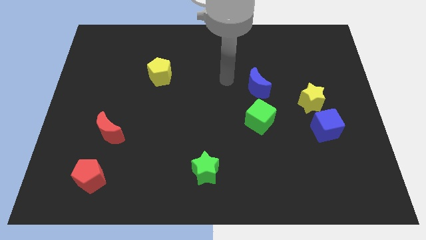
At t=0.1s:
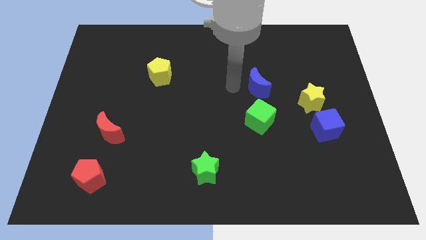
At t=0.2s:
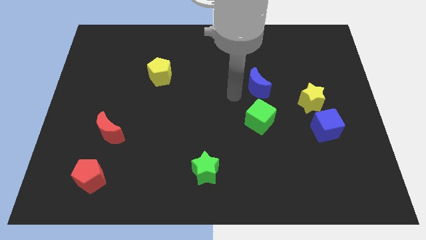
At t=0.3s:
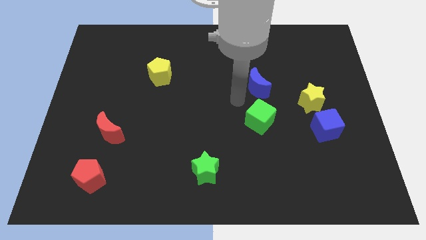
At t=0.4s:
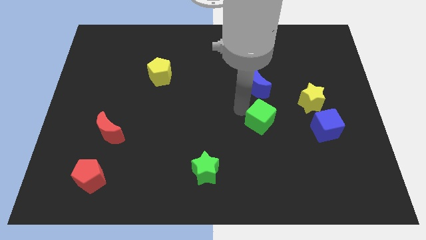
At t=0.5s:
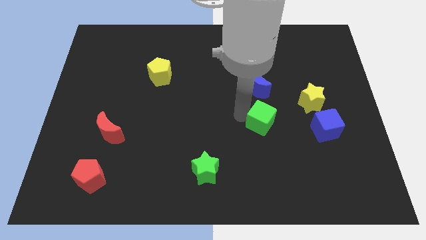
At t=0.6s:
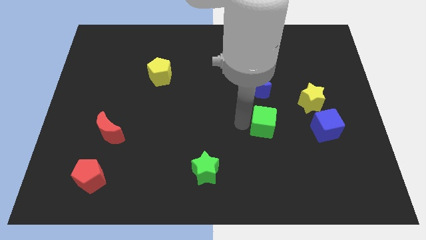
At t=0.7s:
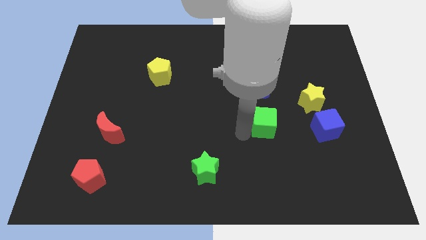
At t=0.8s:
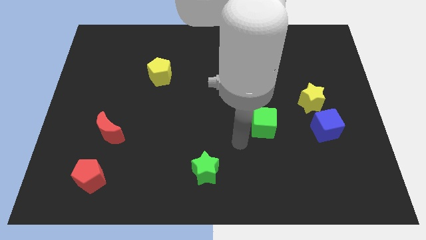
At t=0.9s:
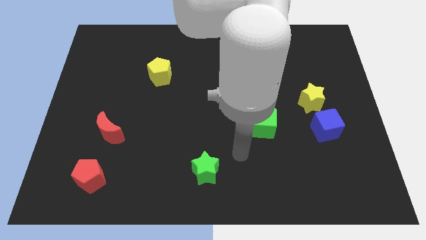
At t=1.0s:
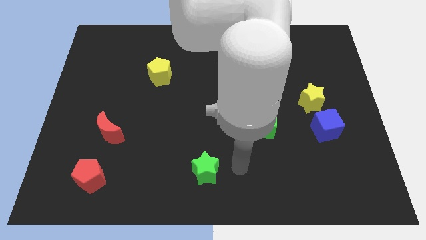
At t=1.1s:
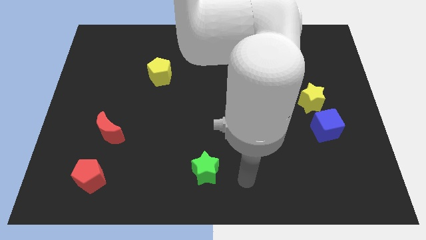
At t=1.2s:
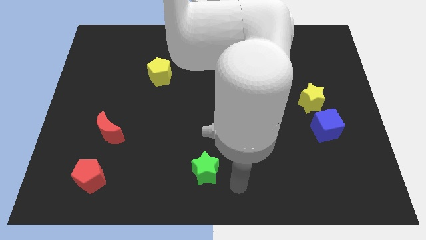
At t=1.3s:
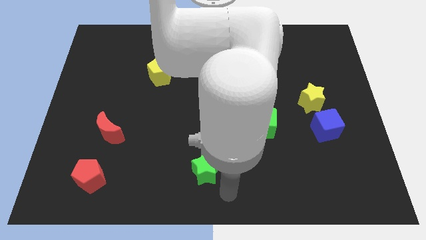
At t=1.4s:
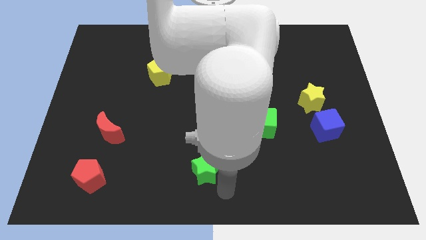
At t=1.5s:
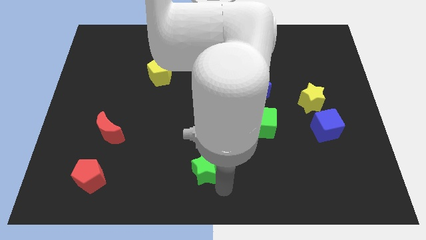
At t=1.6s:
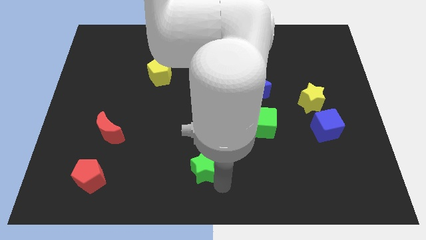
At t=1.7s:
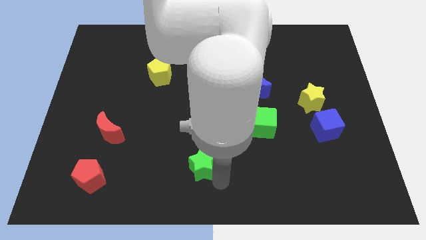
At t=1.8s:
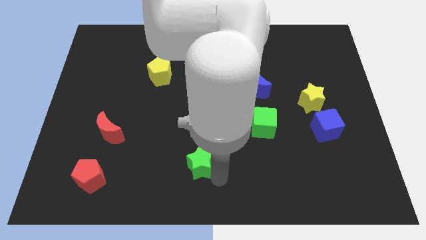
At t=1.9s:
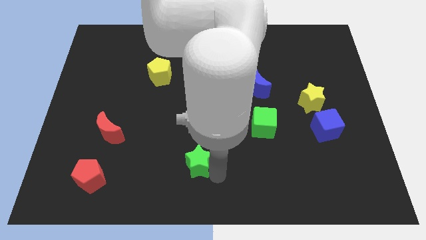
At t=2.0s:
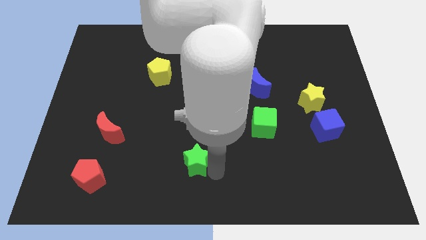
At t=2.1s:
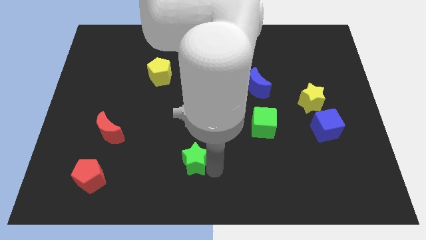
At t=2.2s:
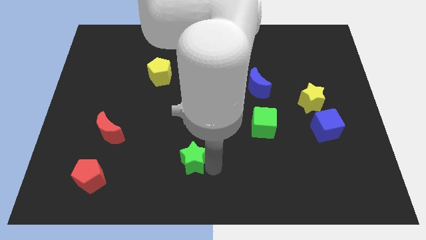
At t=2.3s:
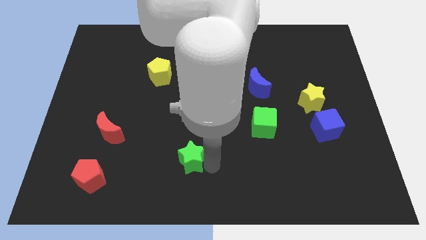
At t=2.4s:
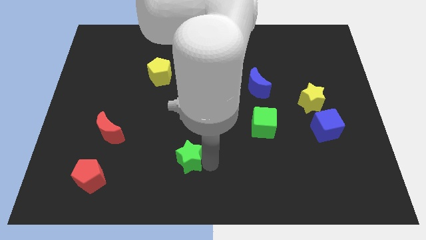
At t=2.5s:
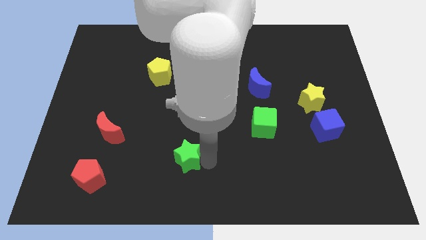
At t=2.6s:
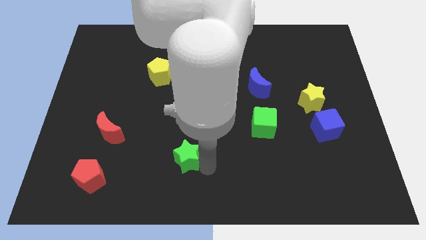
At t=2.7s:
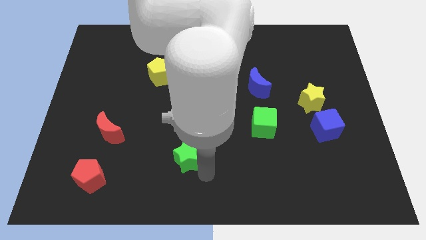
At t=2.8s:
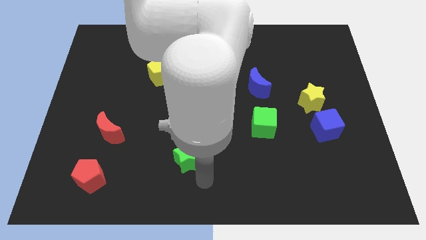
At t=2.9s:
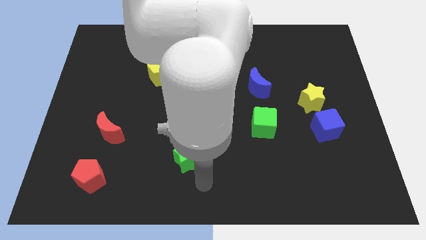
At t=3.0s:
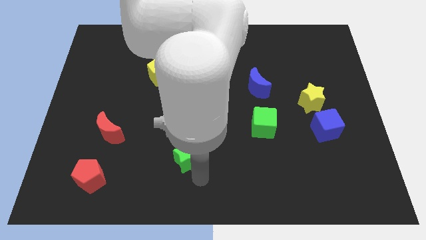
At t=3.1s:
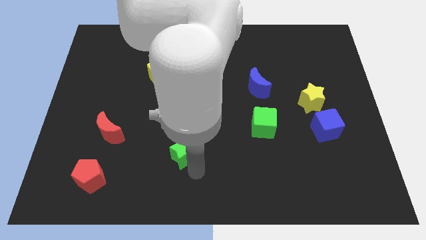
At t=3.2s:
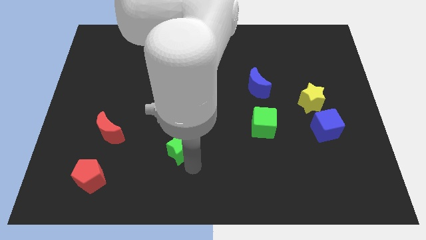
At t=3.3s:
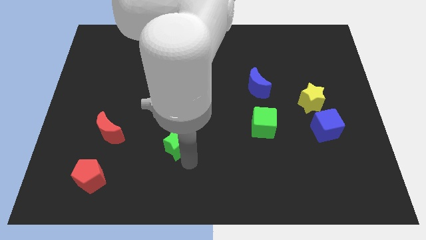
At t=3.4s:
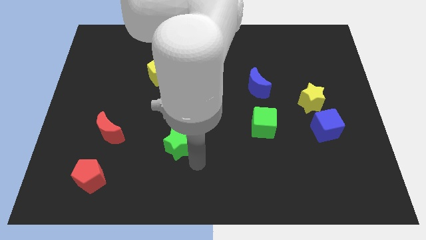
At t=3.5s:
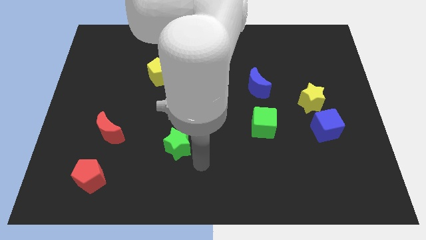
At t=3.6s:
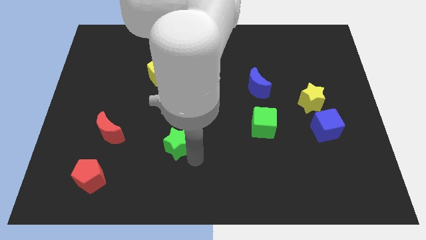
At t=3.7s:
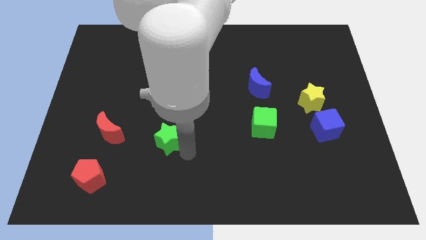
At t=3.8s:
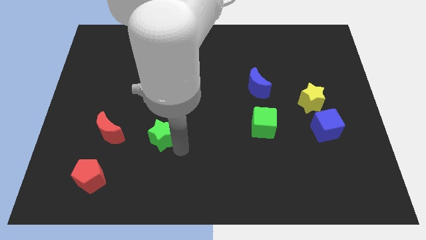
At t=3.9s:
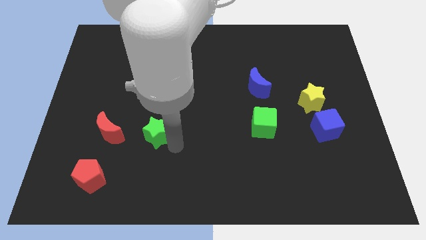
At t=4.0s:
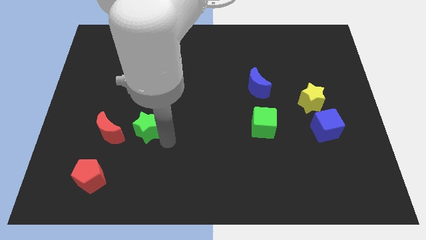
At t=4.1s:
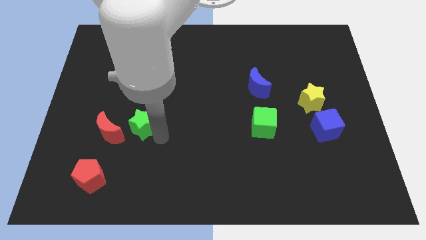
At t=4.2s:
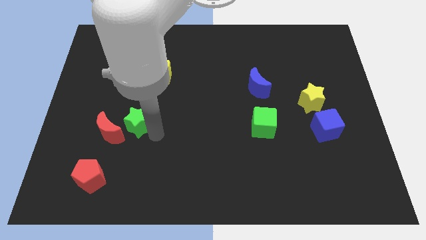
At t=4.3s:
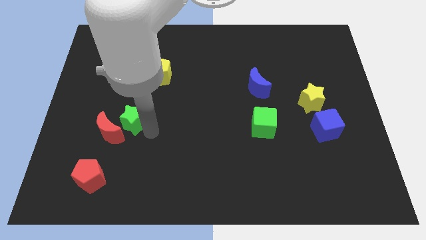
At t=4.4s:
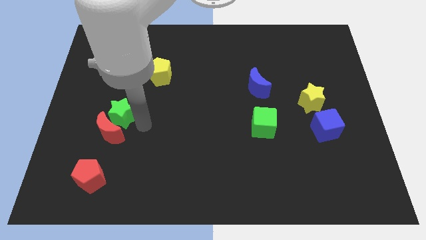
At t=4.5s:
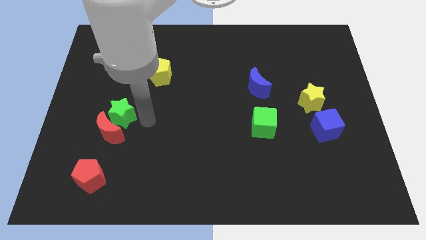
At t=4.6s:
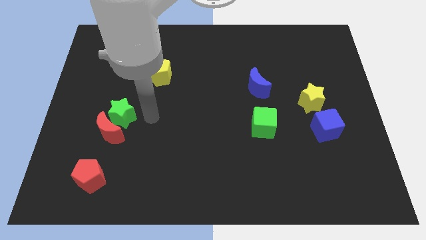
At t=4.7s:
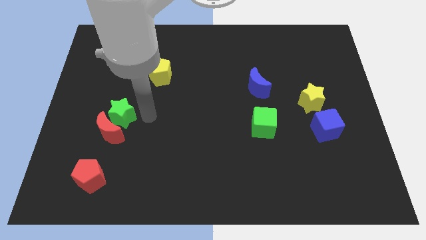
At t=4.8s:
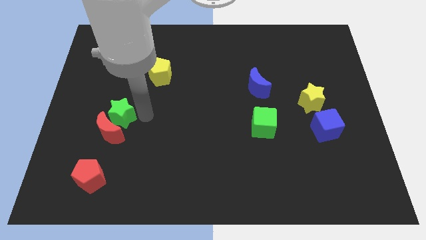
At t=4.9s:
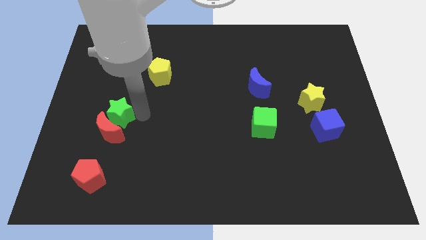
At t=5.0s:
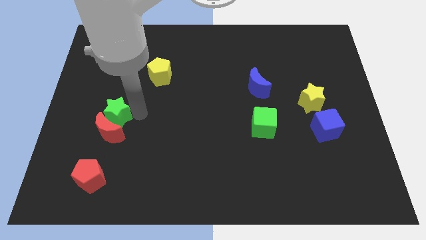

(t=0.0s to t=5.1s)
put the green star to the top left side of the red moon
